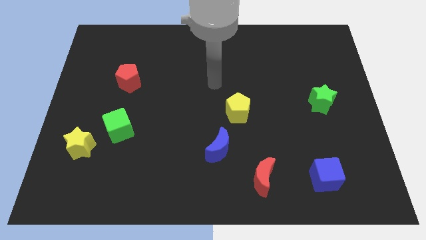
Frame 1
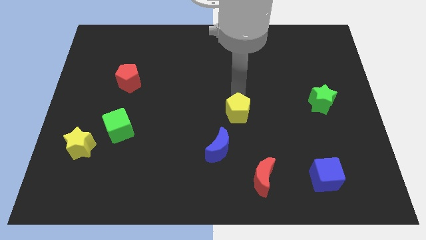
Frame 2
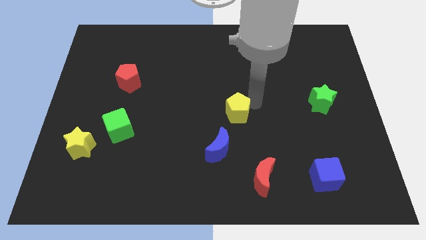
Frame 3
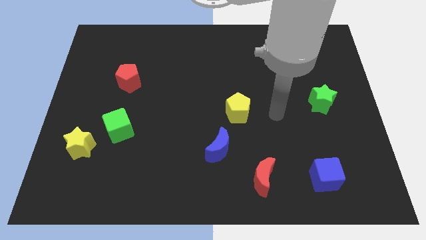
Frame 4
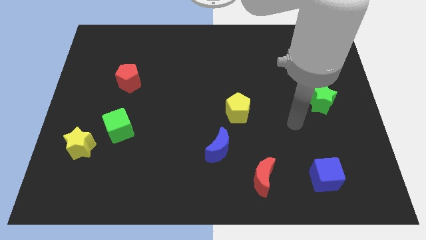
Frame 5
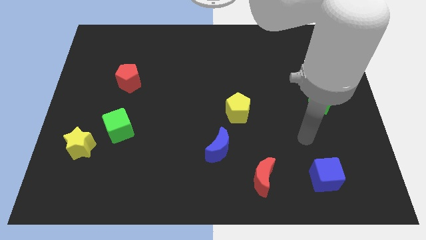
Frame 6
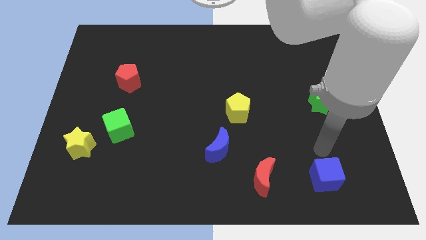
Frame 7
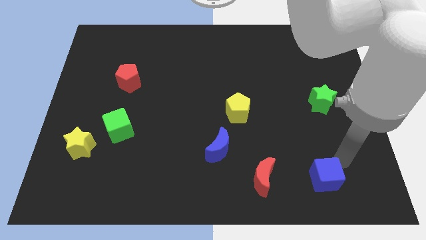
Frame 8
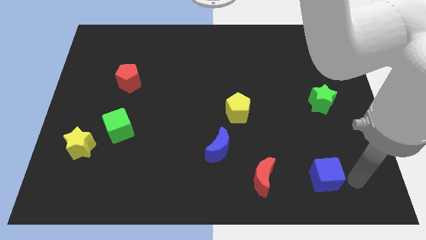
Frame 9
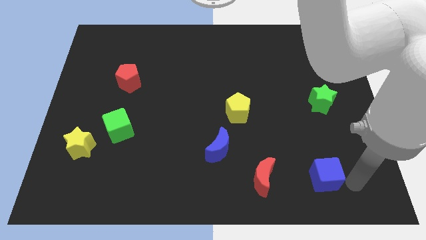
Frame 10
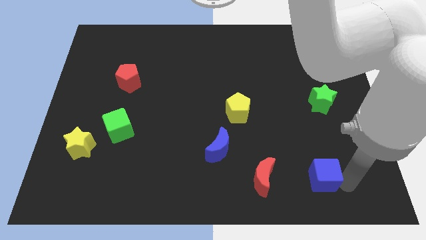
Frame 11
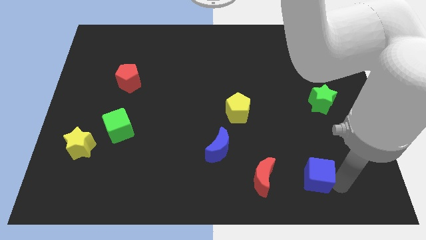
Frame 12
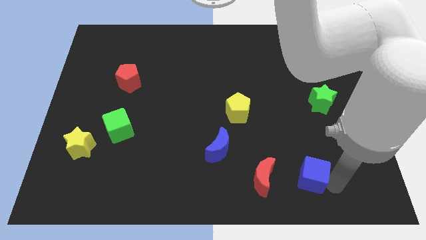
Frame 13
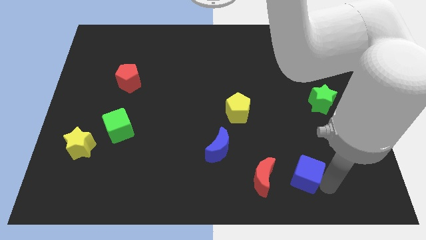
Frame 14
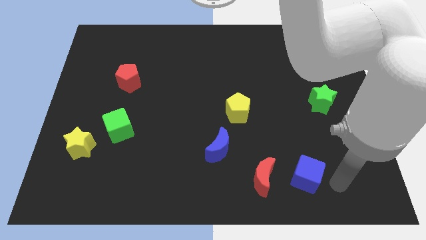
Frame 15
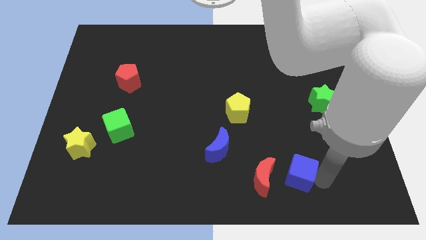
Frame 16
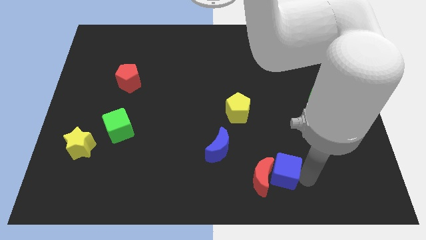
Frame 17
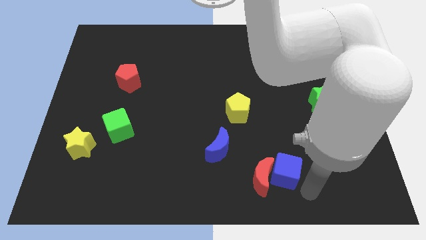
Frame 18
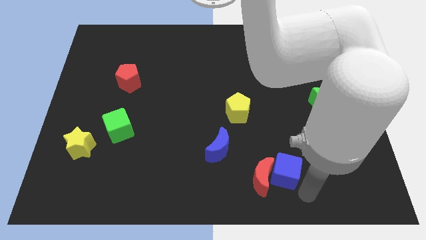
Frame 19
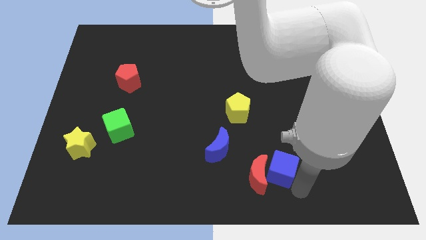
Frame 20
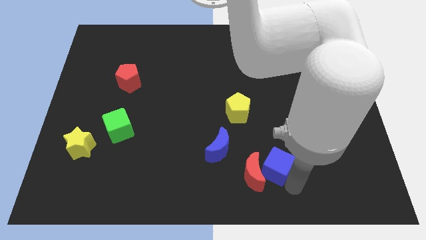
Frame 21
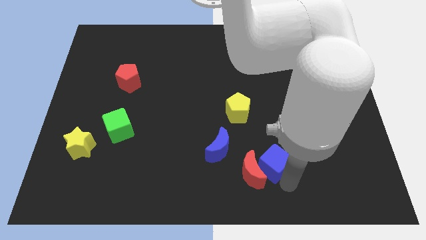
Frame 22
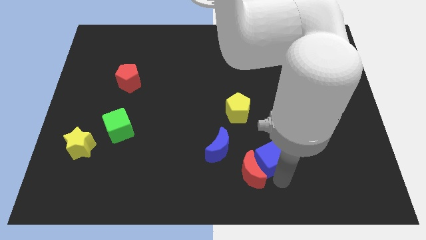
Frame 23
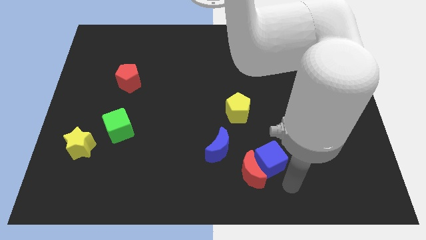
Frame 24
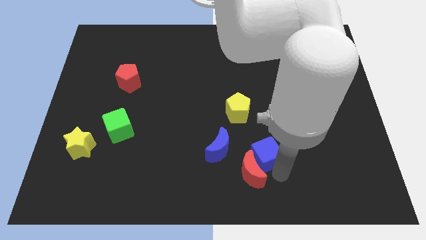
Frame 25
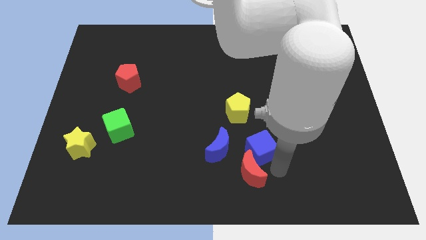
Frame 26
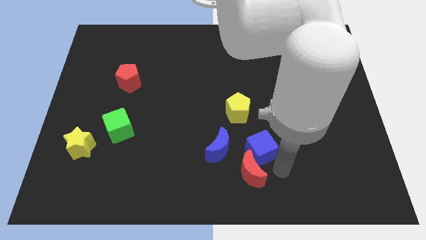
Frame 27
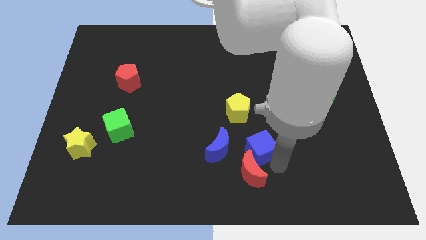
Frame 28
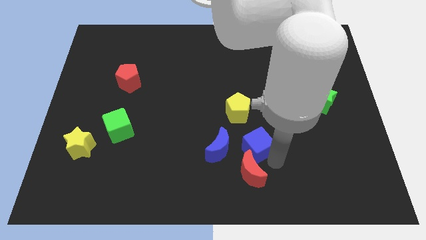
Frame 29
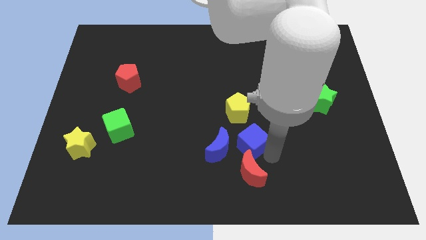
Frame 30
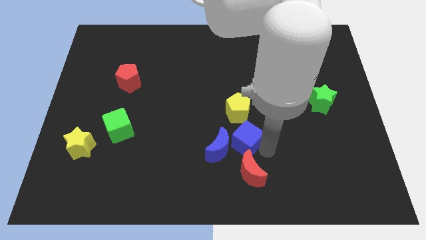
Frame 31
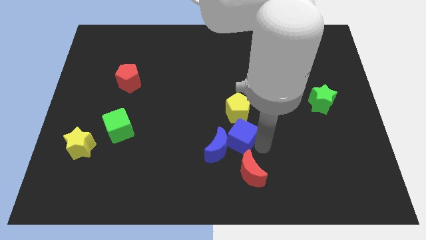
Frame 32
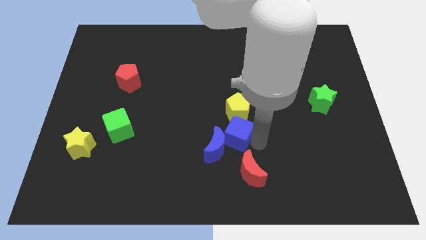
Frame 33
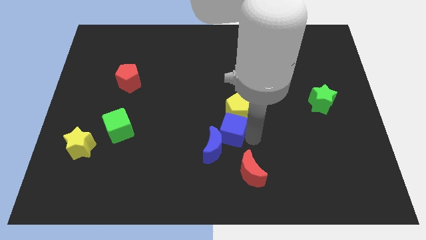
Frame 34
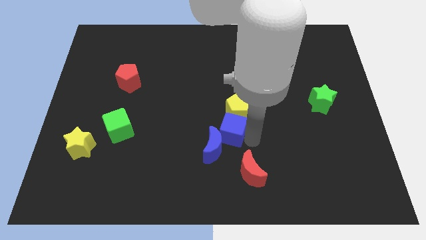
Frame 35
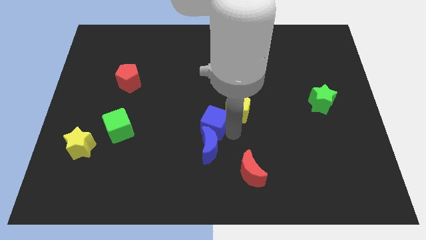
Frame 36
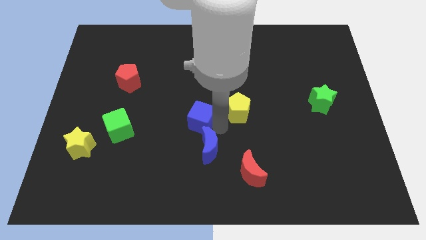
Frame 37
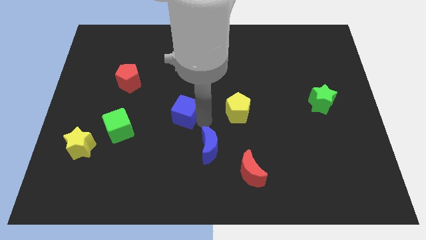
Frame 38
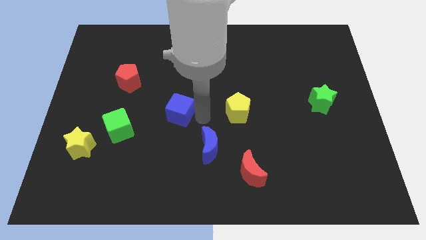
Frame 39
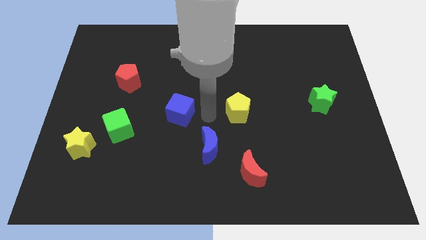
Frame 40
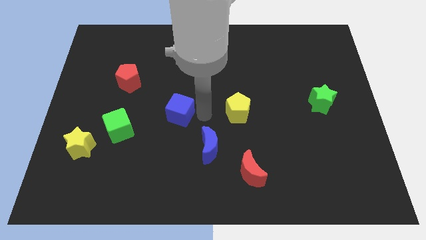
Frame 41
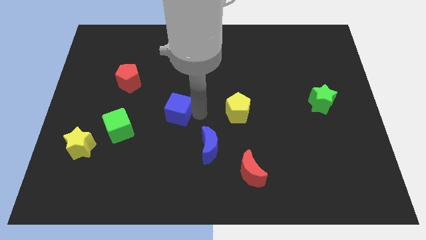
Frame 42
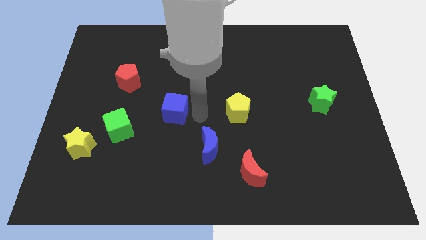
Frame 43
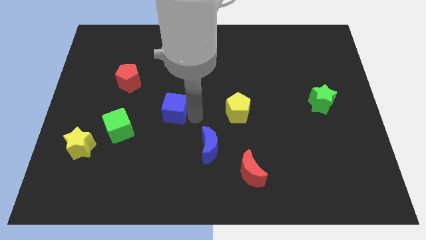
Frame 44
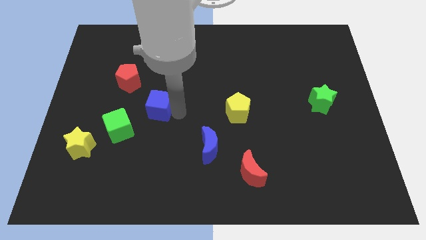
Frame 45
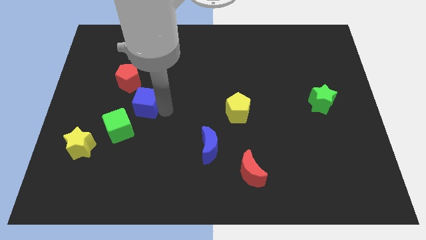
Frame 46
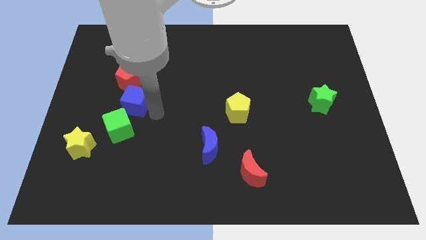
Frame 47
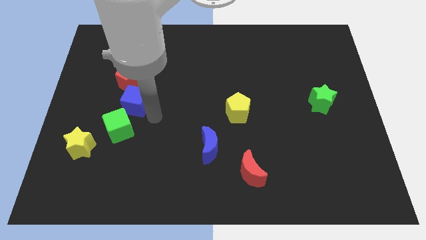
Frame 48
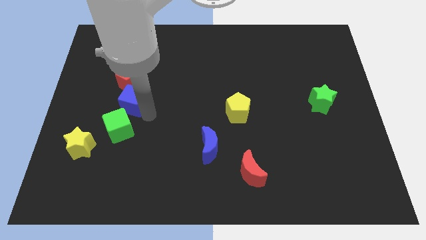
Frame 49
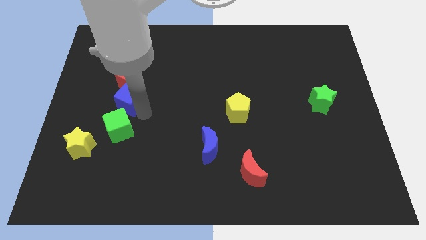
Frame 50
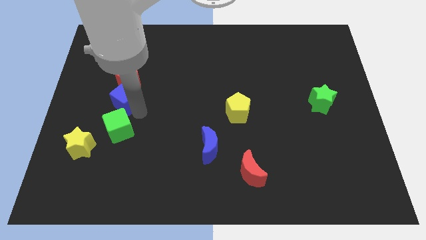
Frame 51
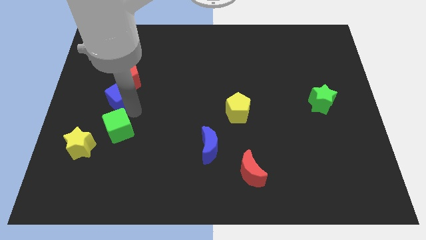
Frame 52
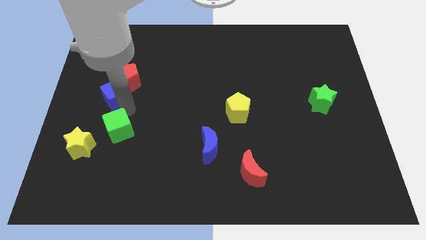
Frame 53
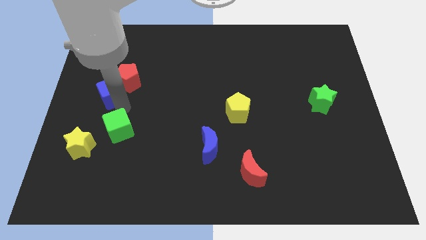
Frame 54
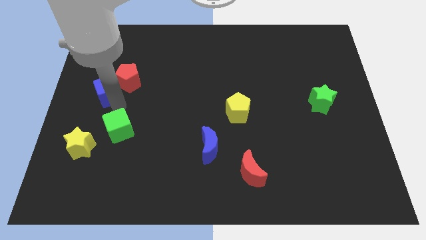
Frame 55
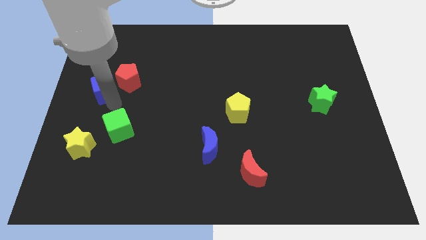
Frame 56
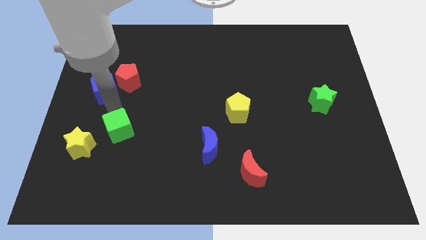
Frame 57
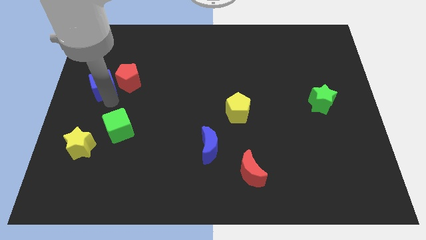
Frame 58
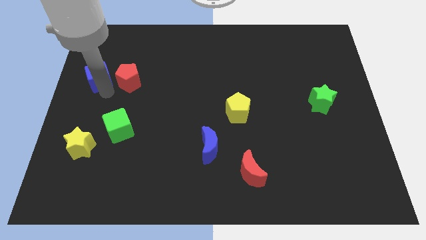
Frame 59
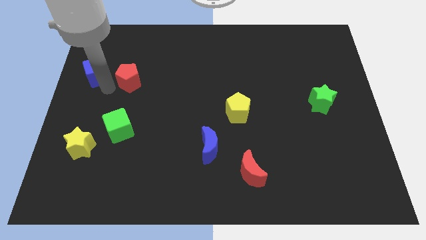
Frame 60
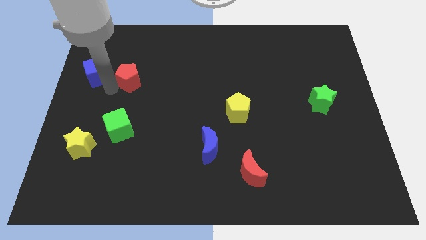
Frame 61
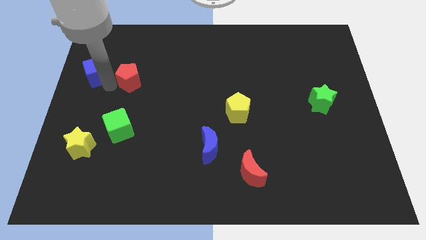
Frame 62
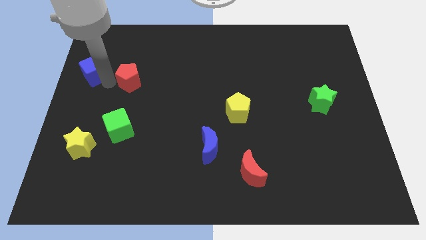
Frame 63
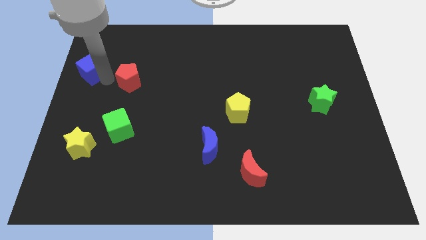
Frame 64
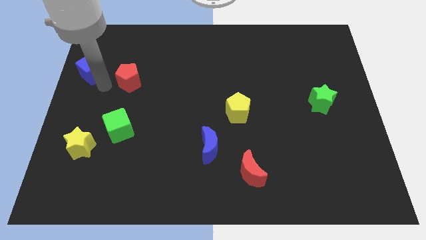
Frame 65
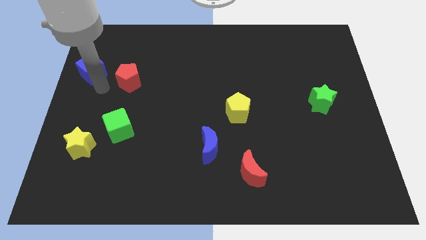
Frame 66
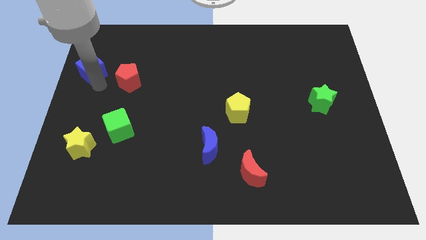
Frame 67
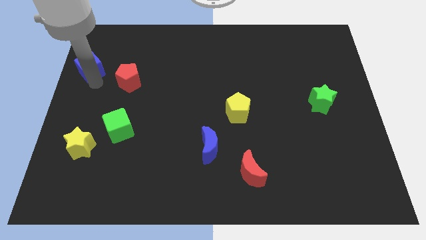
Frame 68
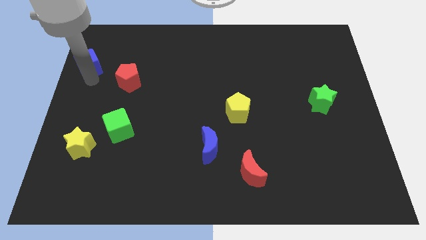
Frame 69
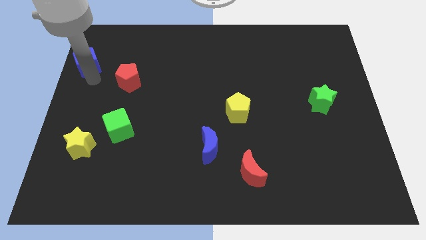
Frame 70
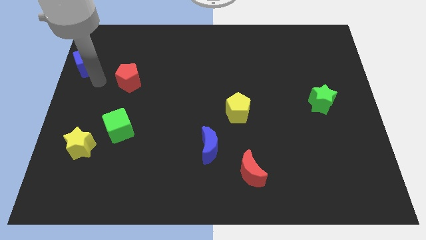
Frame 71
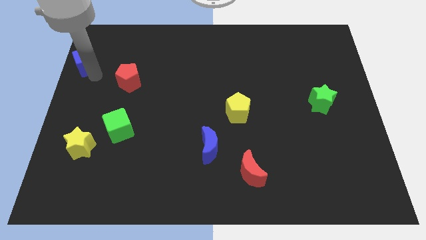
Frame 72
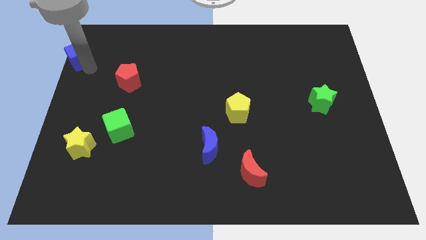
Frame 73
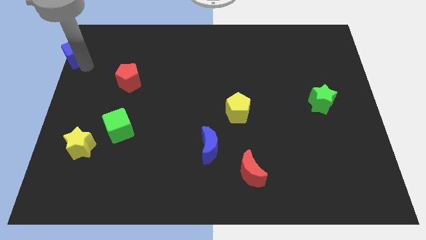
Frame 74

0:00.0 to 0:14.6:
put the blue cube to the upper left corner
